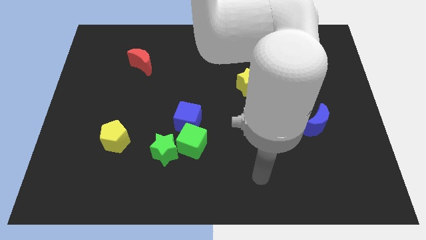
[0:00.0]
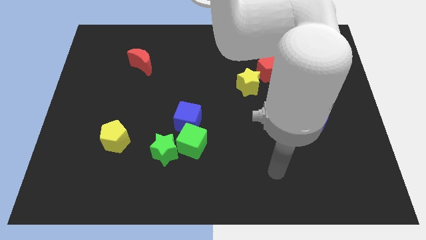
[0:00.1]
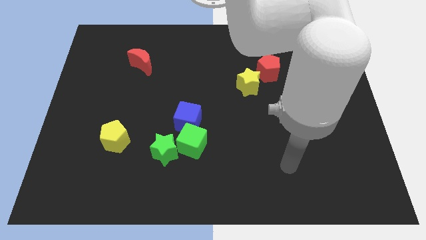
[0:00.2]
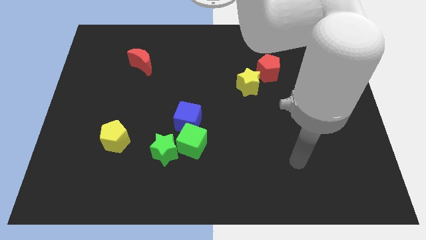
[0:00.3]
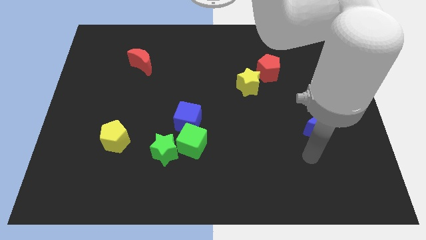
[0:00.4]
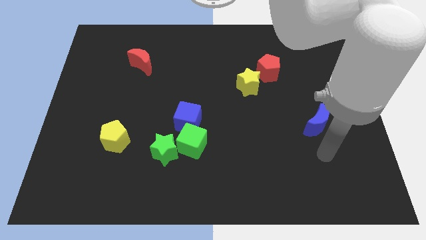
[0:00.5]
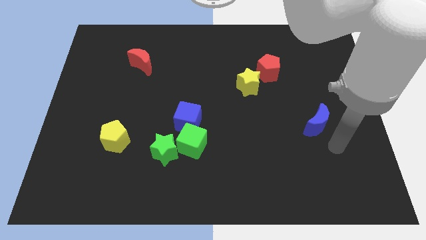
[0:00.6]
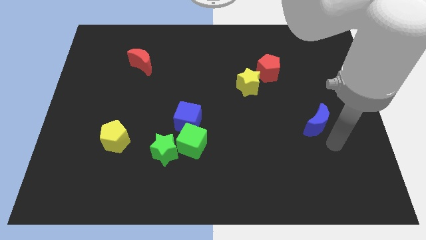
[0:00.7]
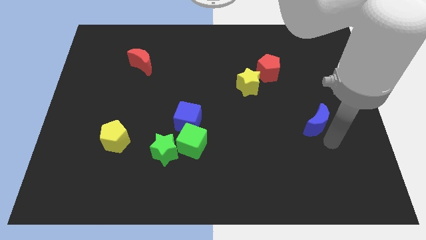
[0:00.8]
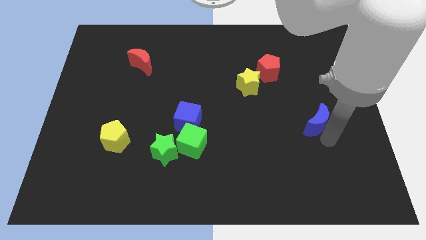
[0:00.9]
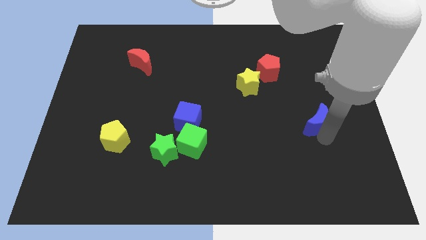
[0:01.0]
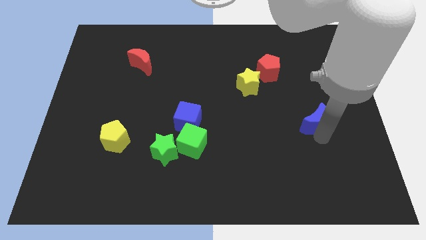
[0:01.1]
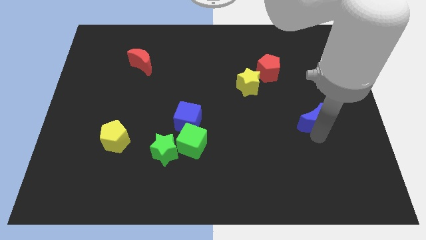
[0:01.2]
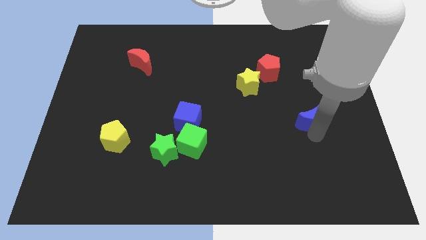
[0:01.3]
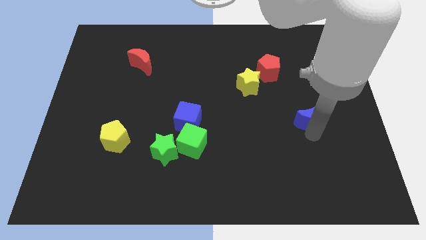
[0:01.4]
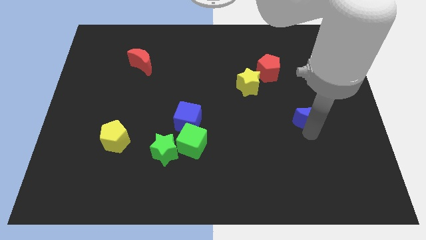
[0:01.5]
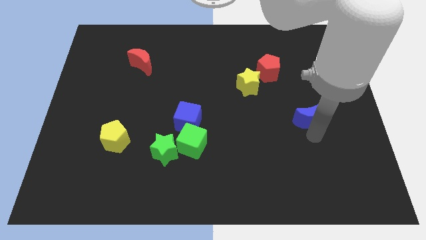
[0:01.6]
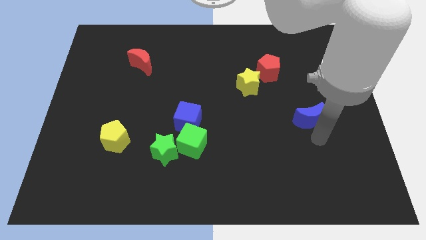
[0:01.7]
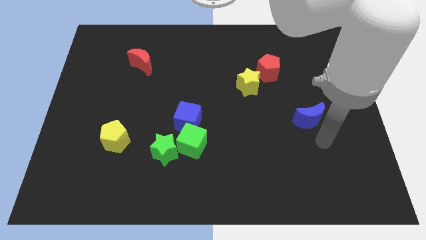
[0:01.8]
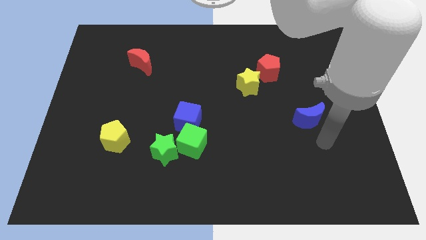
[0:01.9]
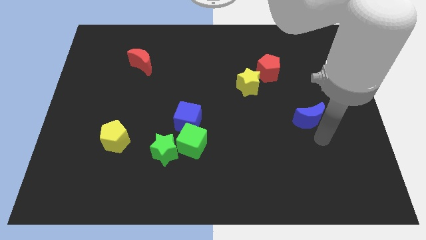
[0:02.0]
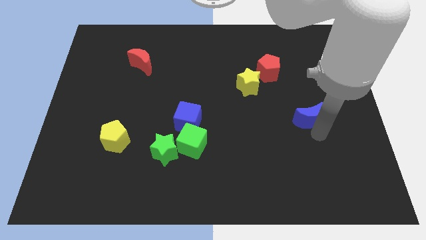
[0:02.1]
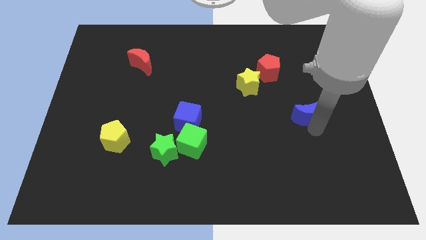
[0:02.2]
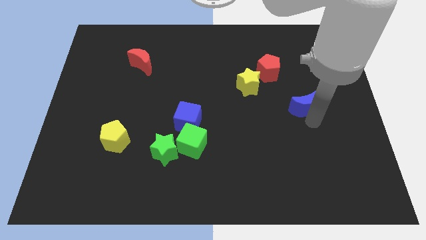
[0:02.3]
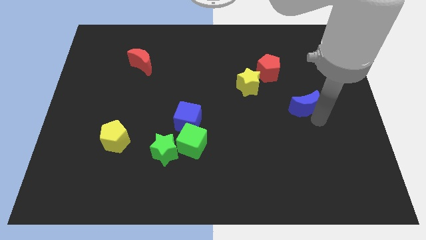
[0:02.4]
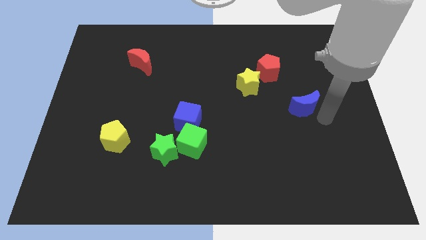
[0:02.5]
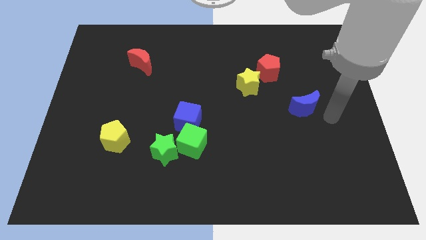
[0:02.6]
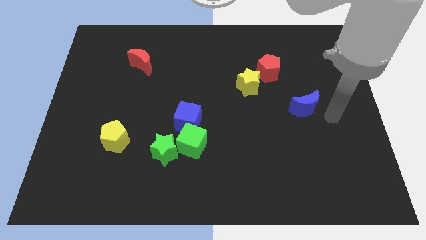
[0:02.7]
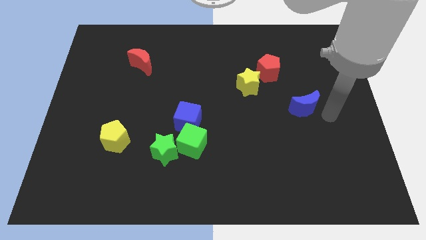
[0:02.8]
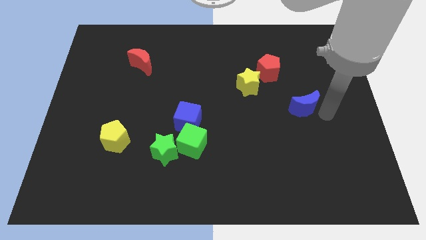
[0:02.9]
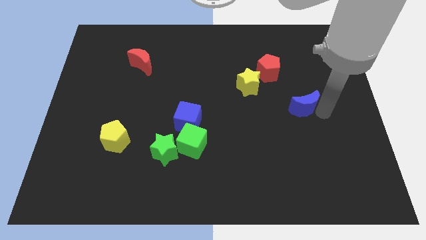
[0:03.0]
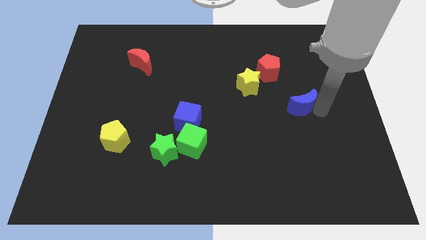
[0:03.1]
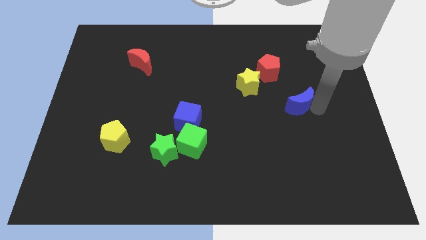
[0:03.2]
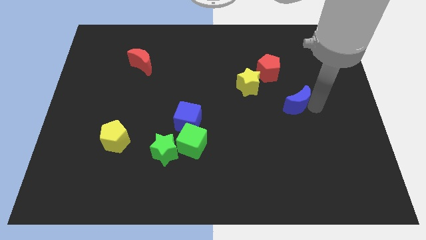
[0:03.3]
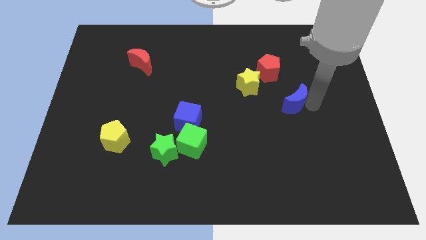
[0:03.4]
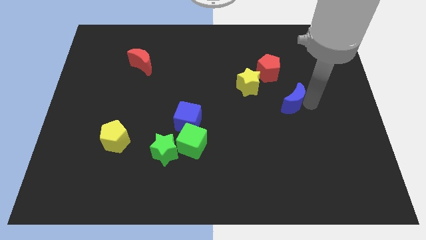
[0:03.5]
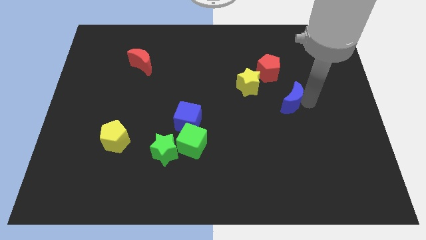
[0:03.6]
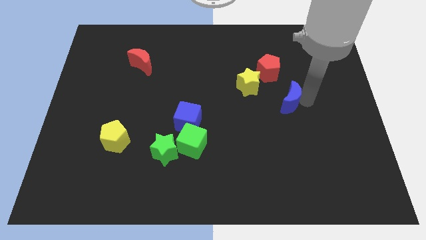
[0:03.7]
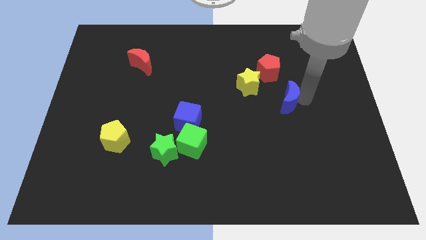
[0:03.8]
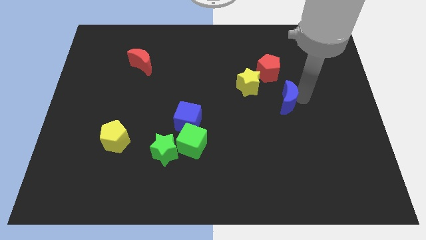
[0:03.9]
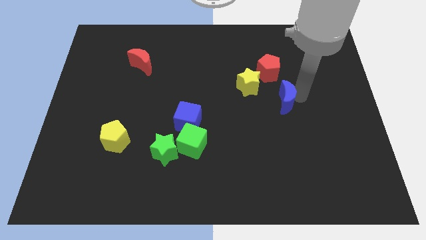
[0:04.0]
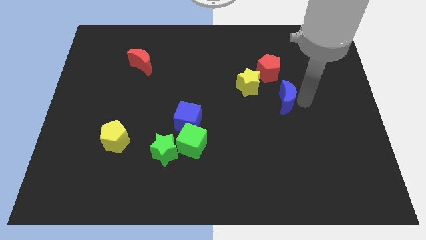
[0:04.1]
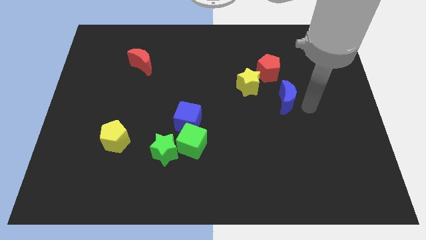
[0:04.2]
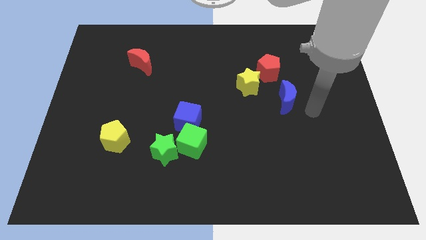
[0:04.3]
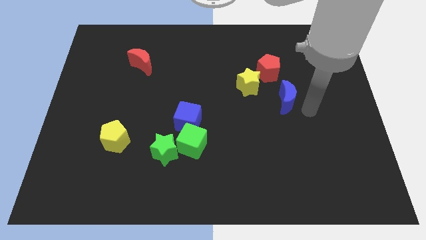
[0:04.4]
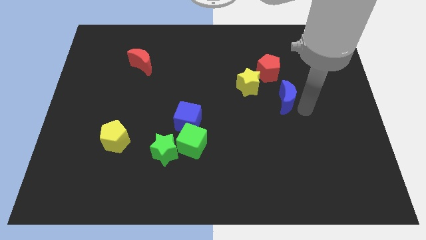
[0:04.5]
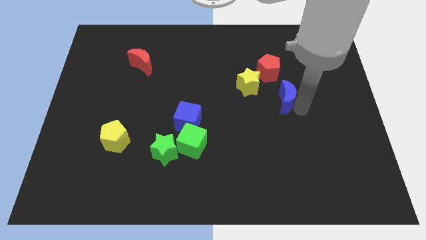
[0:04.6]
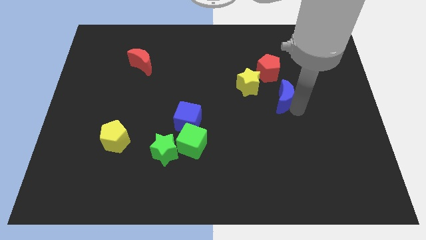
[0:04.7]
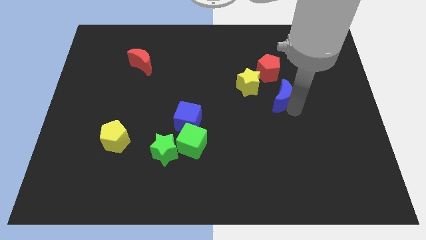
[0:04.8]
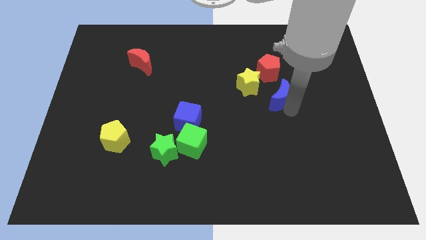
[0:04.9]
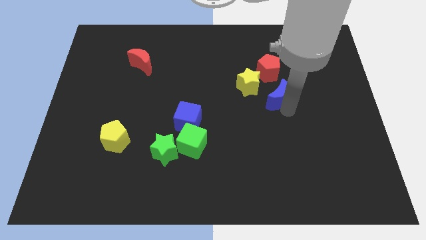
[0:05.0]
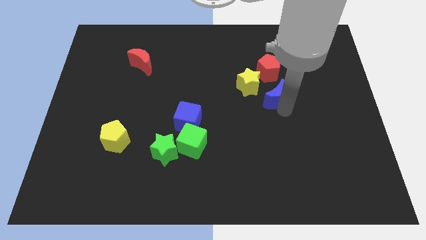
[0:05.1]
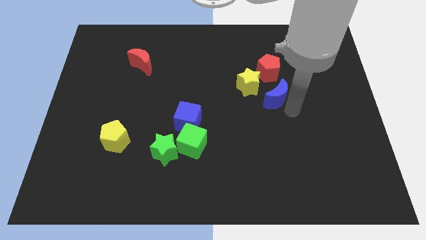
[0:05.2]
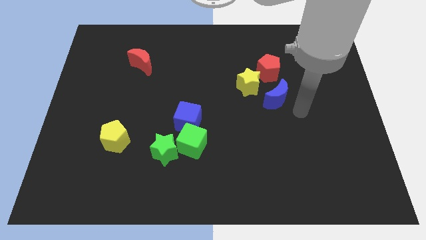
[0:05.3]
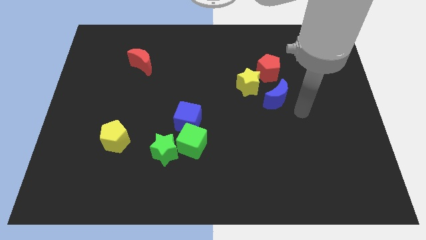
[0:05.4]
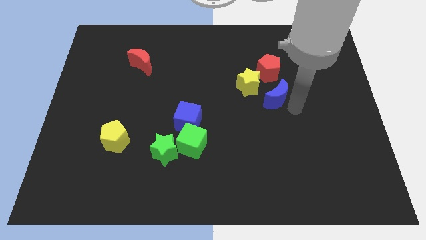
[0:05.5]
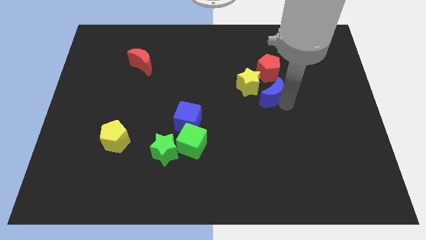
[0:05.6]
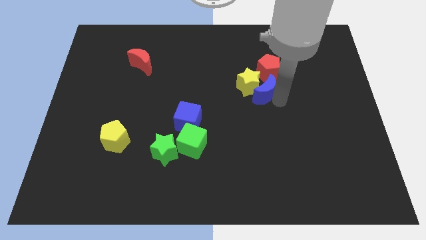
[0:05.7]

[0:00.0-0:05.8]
push the blue moon close to the yellow star

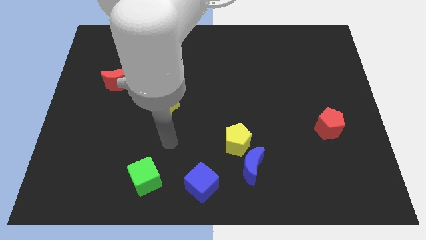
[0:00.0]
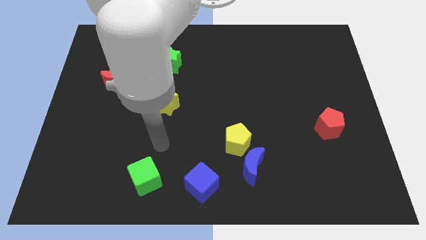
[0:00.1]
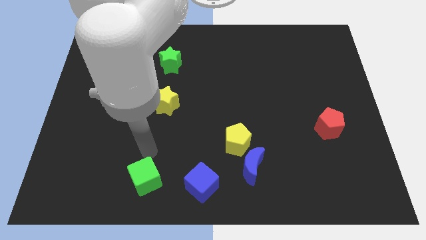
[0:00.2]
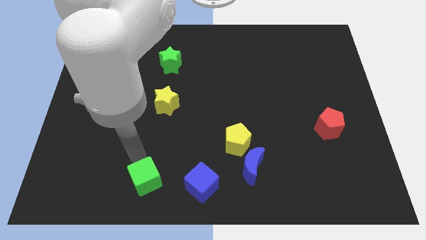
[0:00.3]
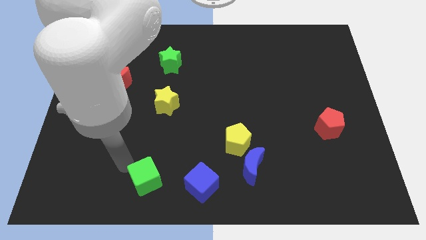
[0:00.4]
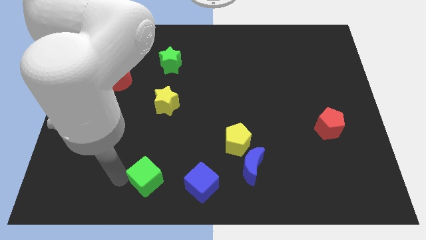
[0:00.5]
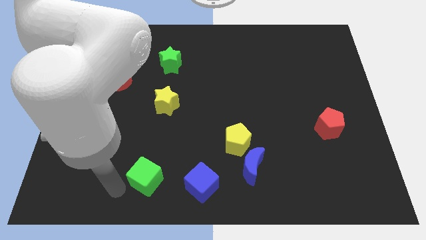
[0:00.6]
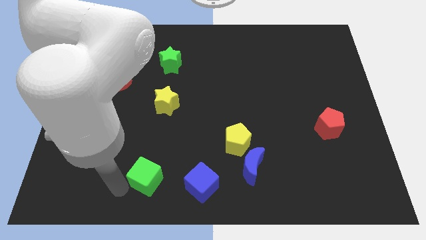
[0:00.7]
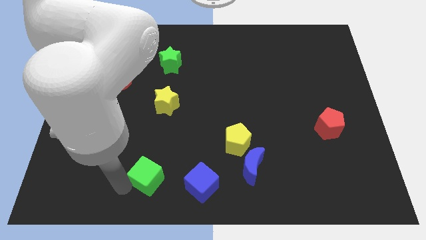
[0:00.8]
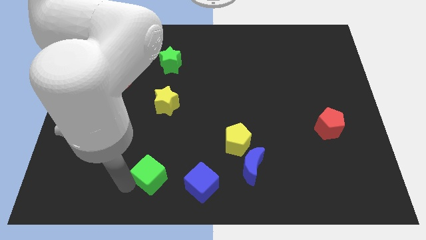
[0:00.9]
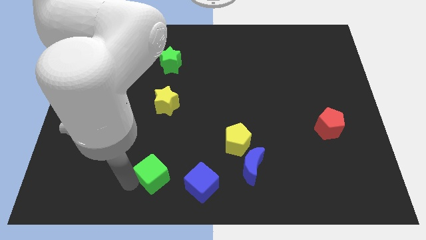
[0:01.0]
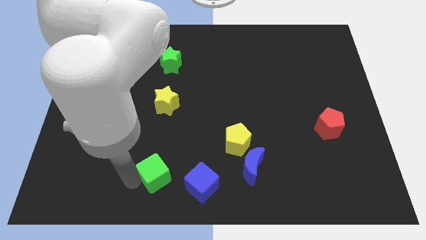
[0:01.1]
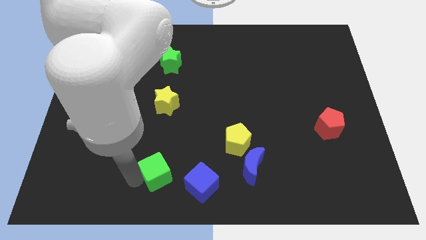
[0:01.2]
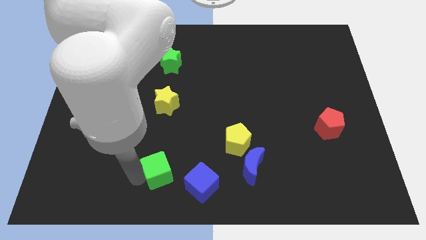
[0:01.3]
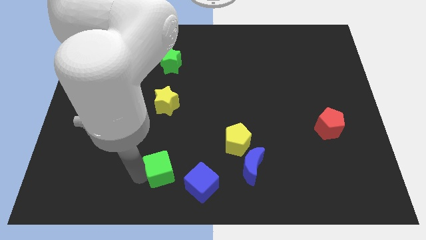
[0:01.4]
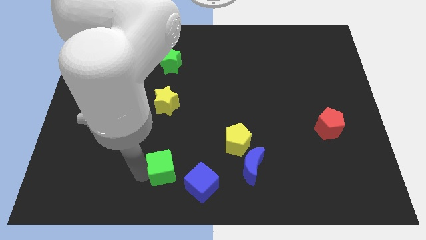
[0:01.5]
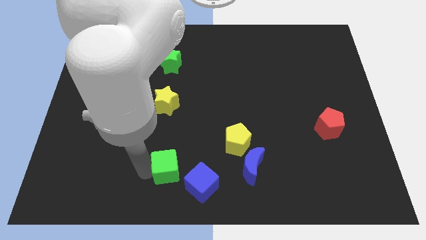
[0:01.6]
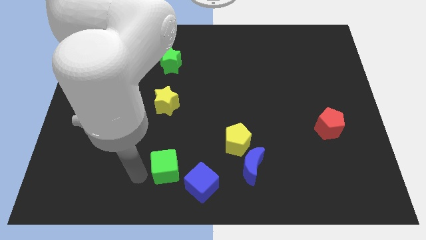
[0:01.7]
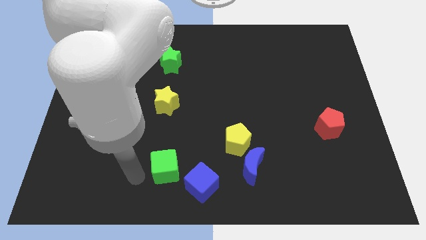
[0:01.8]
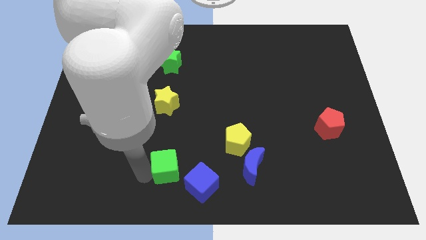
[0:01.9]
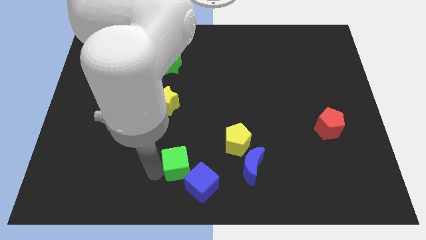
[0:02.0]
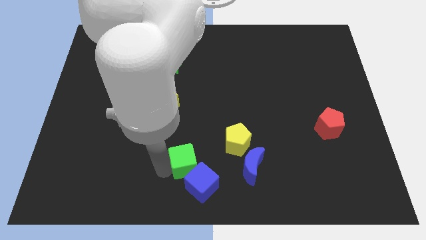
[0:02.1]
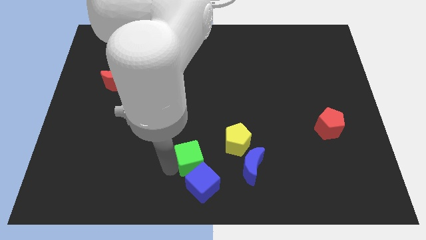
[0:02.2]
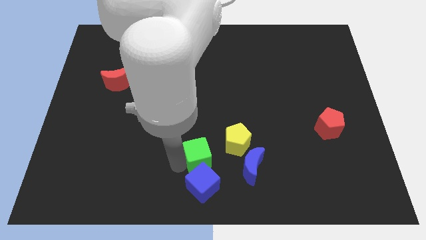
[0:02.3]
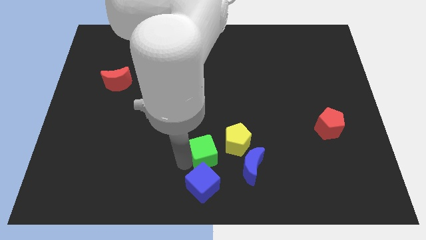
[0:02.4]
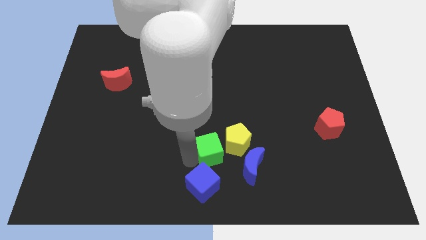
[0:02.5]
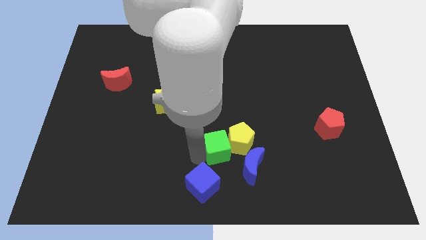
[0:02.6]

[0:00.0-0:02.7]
move the green cube next to the yellow pentagon
